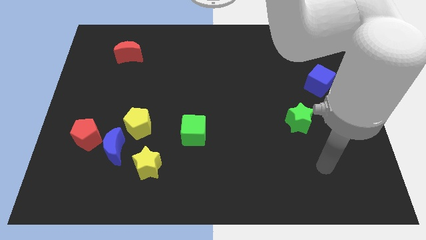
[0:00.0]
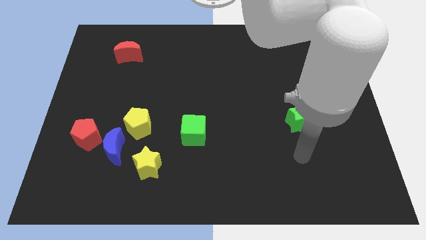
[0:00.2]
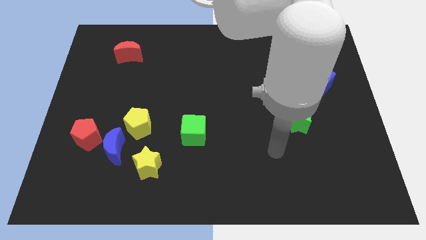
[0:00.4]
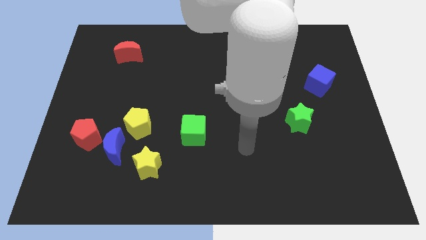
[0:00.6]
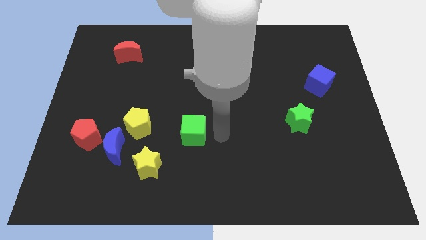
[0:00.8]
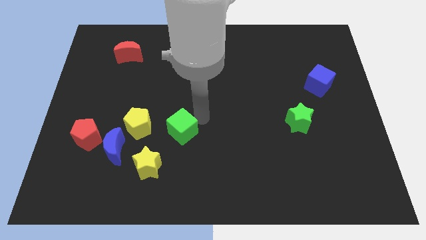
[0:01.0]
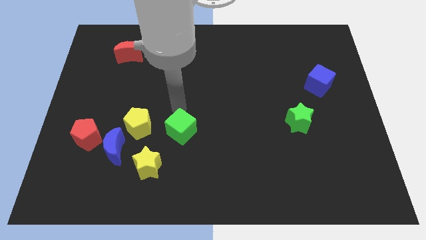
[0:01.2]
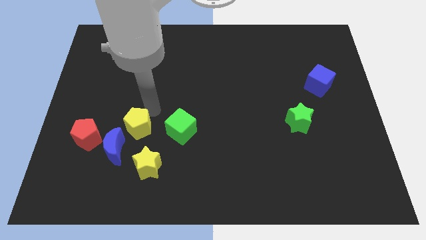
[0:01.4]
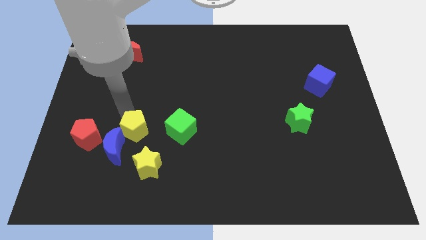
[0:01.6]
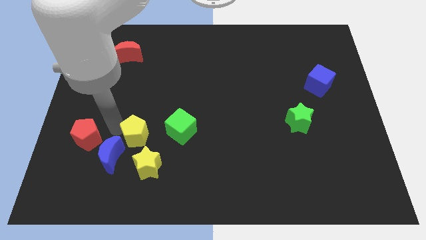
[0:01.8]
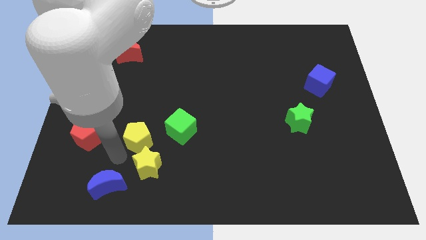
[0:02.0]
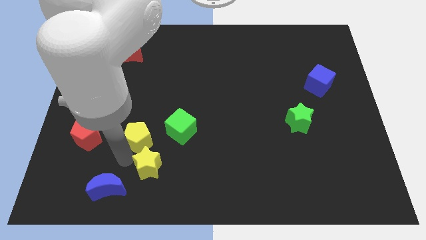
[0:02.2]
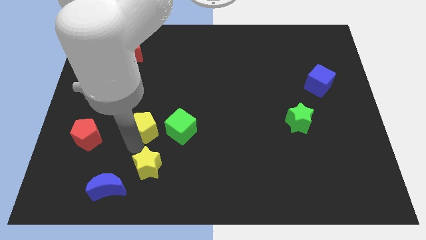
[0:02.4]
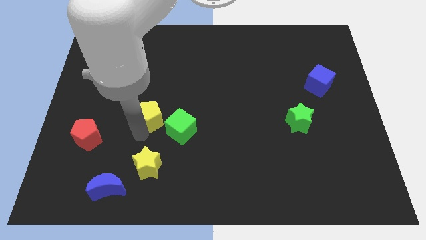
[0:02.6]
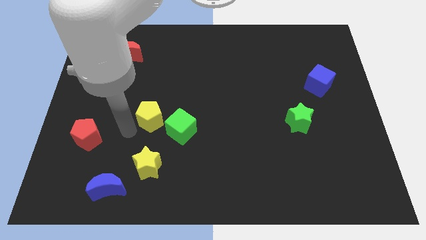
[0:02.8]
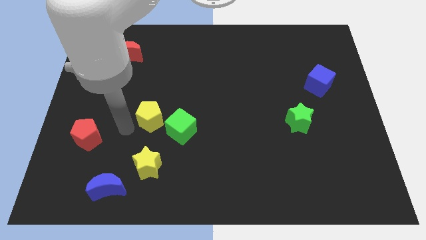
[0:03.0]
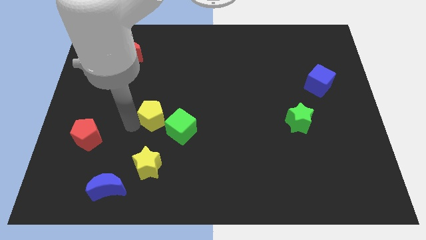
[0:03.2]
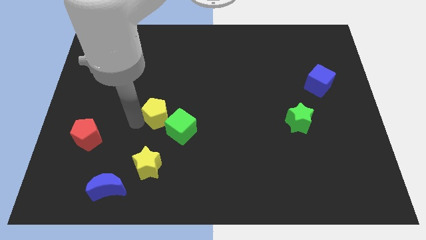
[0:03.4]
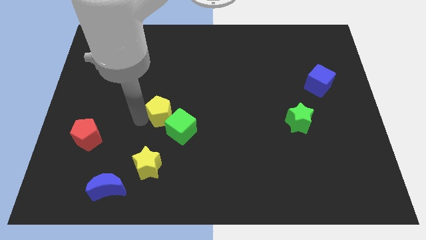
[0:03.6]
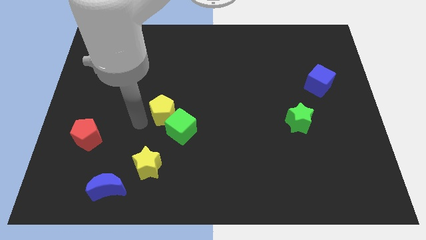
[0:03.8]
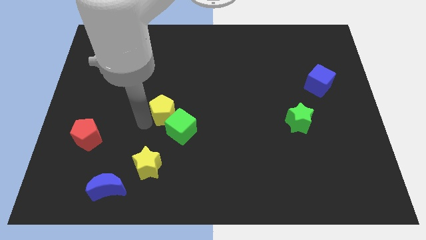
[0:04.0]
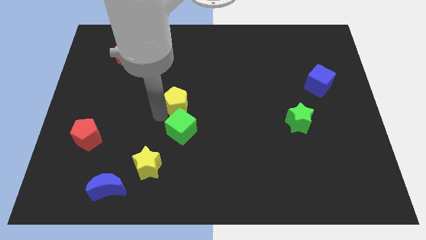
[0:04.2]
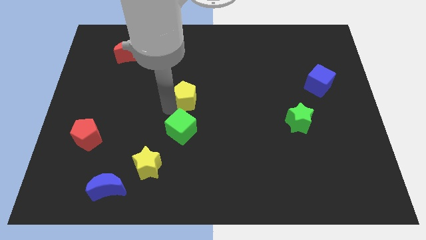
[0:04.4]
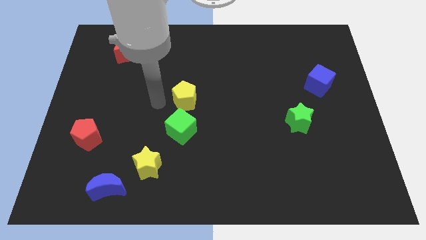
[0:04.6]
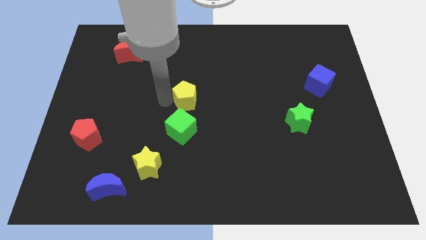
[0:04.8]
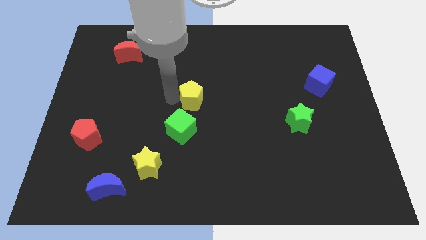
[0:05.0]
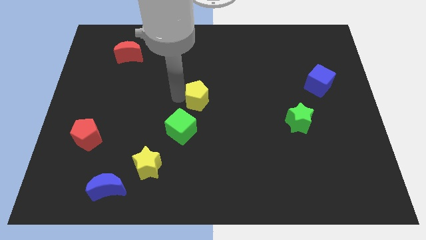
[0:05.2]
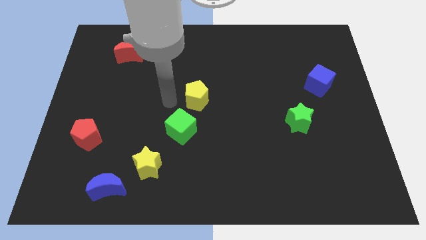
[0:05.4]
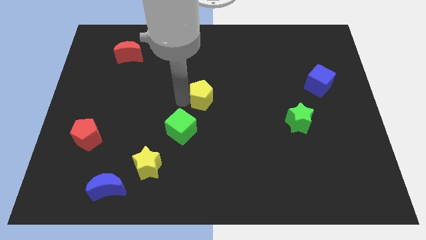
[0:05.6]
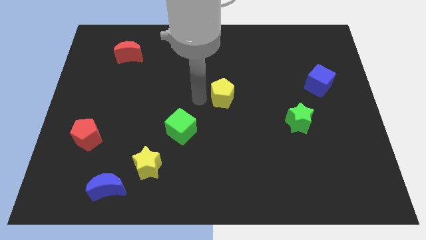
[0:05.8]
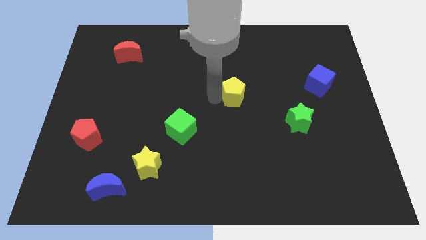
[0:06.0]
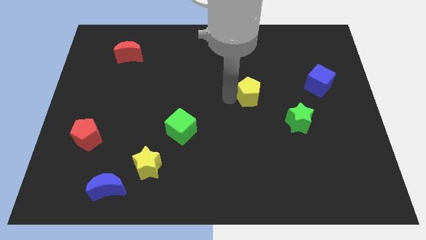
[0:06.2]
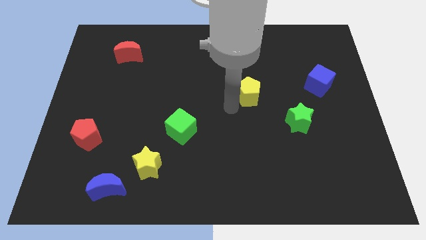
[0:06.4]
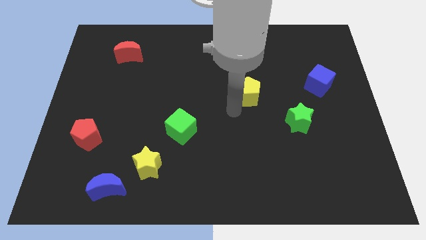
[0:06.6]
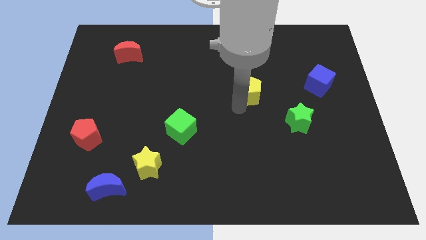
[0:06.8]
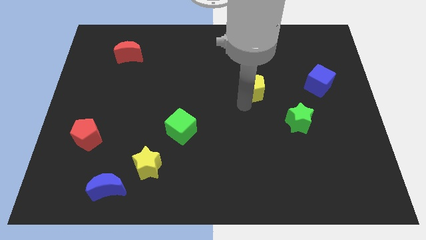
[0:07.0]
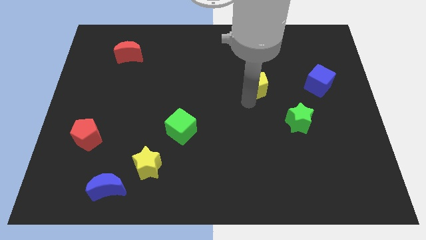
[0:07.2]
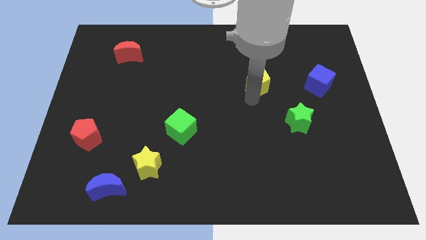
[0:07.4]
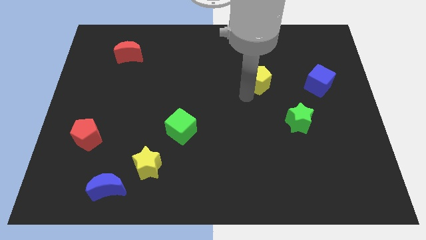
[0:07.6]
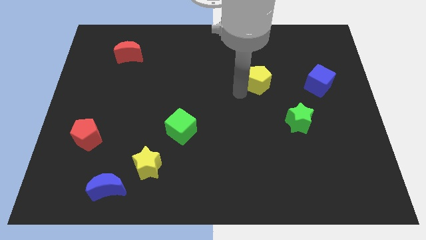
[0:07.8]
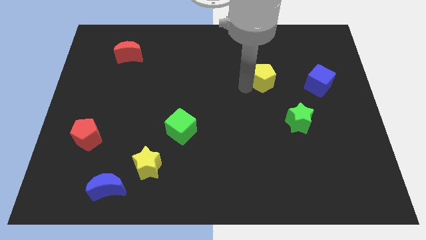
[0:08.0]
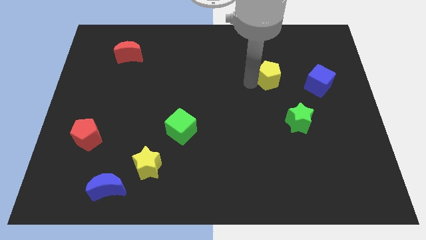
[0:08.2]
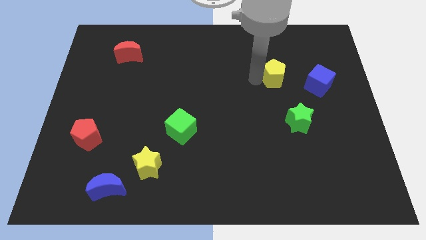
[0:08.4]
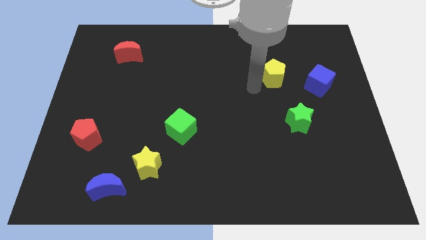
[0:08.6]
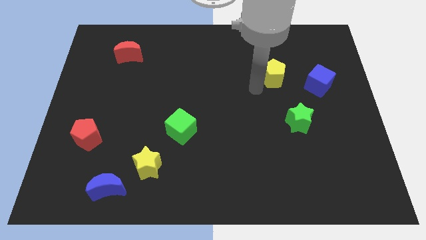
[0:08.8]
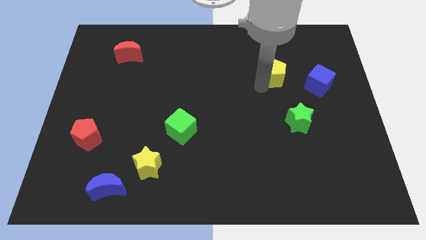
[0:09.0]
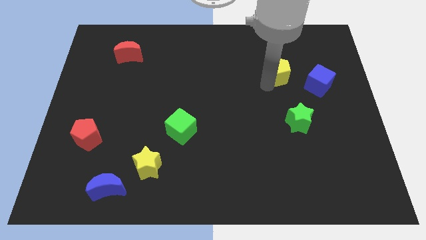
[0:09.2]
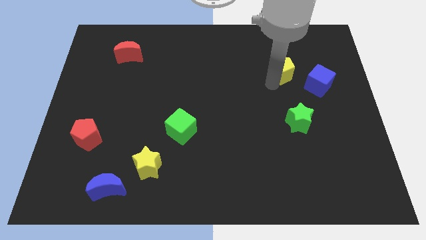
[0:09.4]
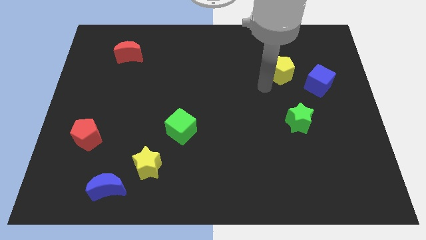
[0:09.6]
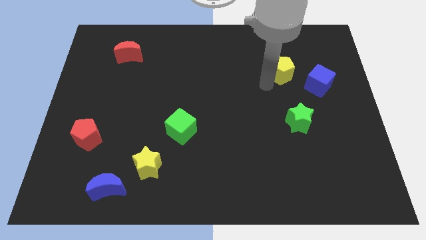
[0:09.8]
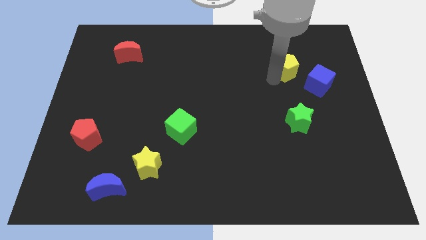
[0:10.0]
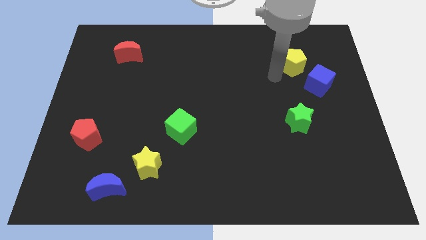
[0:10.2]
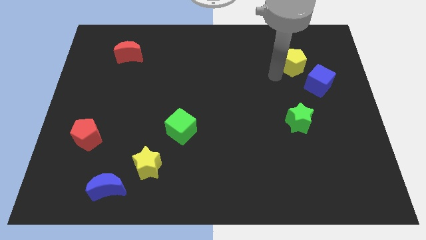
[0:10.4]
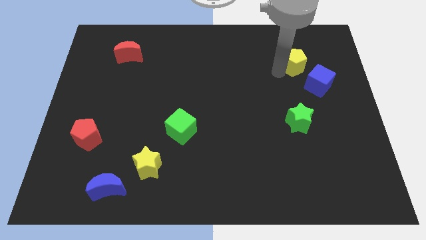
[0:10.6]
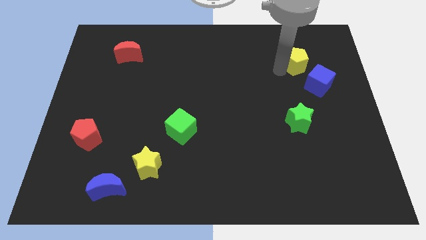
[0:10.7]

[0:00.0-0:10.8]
push the yellow pentagon to the top side of the blue cube

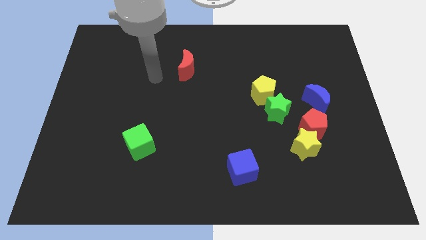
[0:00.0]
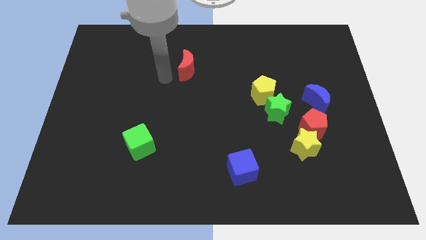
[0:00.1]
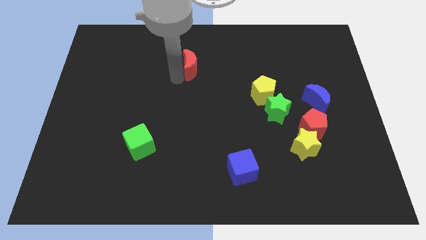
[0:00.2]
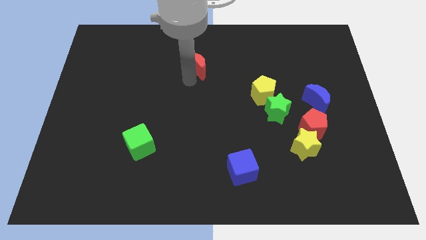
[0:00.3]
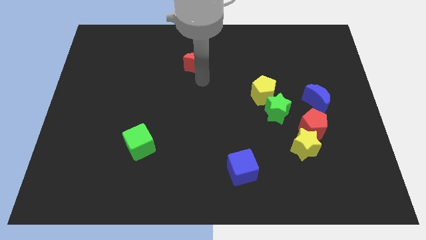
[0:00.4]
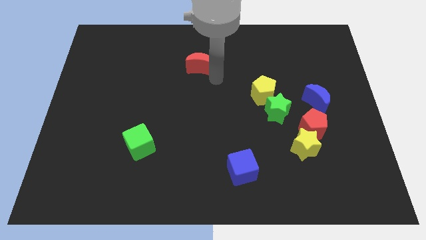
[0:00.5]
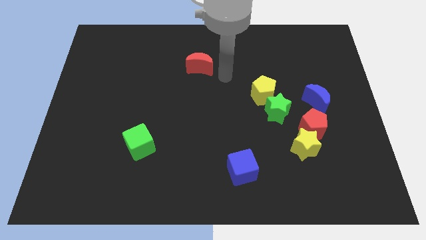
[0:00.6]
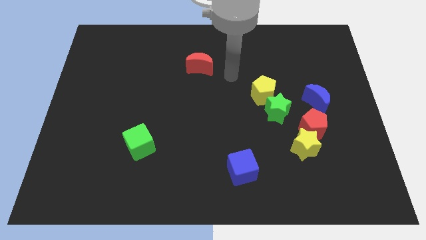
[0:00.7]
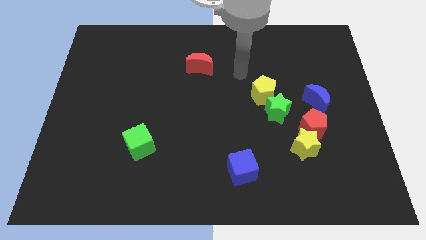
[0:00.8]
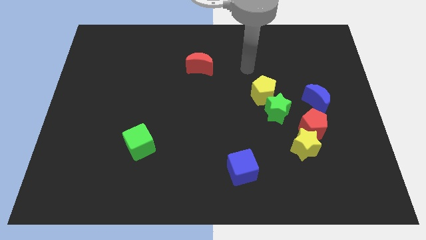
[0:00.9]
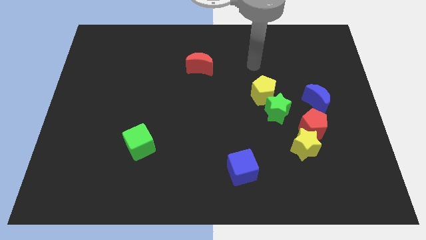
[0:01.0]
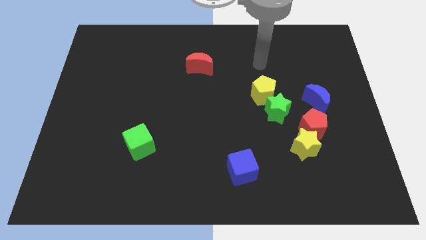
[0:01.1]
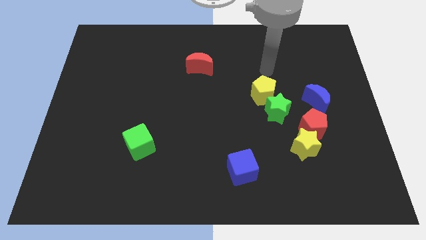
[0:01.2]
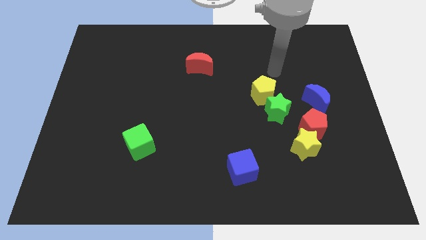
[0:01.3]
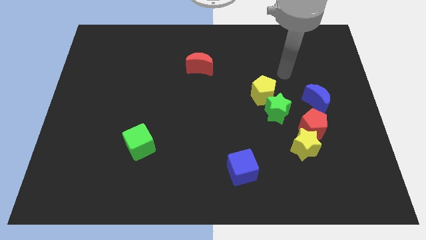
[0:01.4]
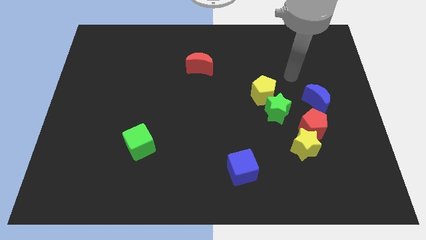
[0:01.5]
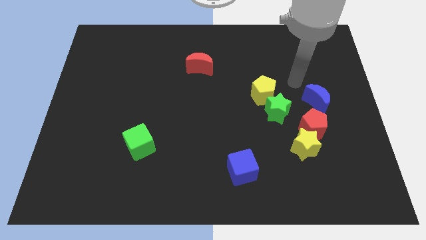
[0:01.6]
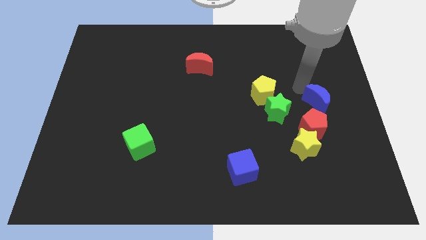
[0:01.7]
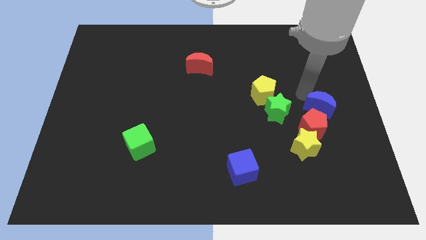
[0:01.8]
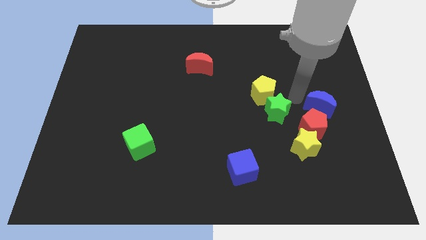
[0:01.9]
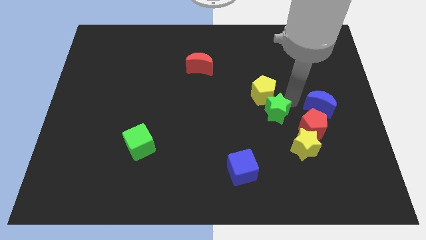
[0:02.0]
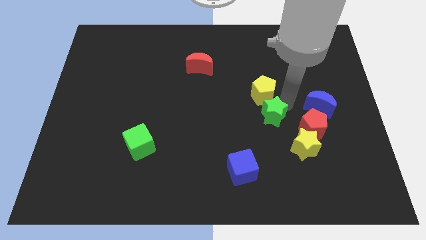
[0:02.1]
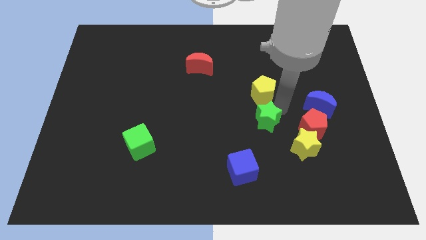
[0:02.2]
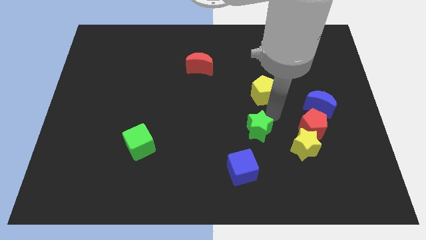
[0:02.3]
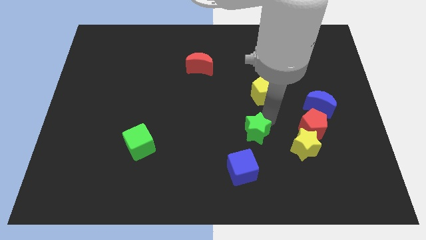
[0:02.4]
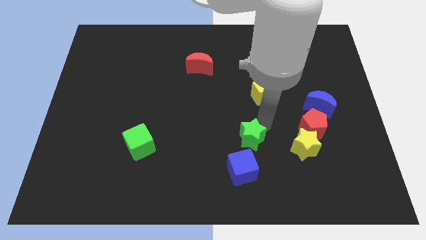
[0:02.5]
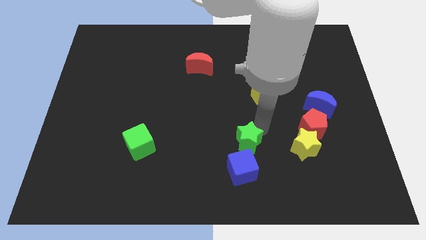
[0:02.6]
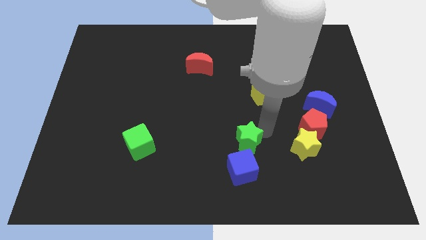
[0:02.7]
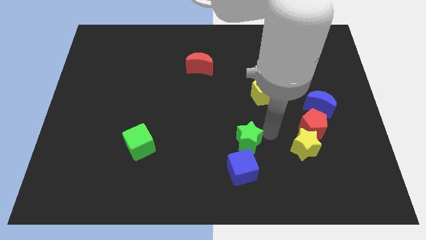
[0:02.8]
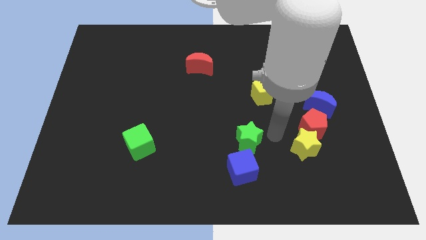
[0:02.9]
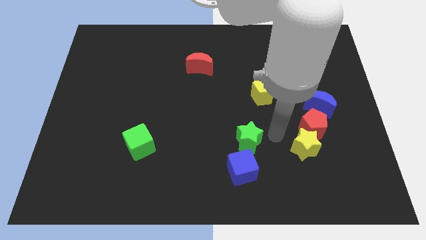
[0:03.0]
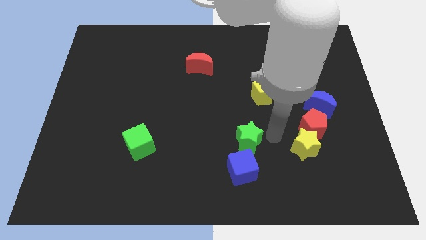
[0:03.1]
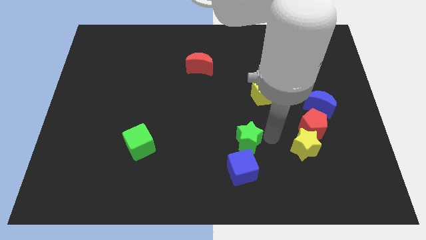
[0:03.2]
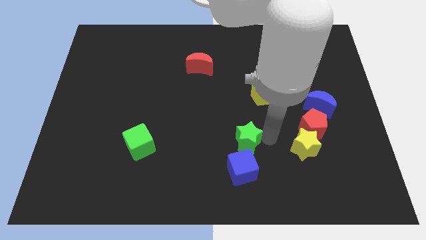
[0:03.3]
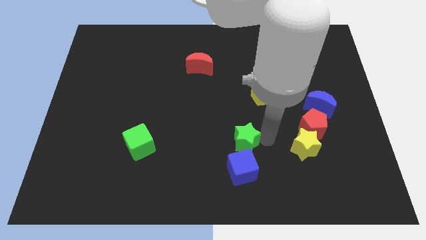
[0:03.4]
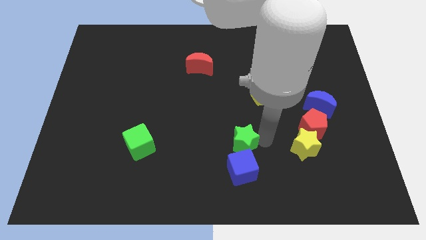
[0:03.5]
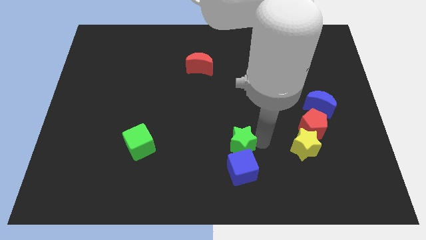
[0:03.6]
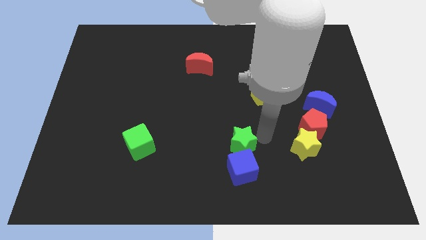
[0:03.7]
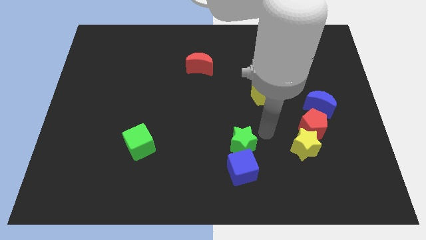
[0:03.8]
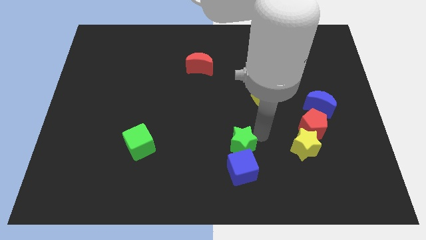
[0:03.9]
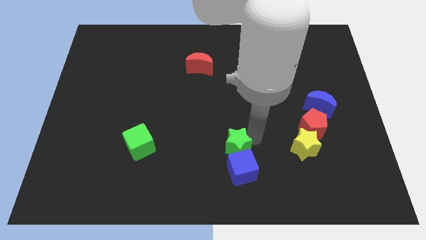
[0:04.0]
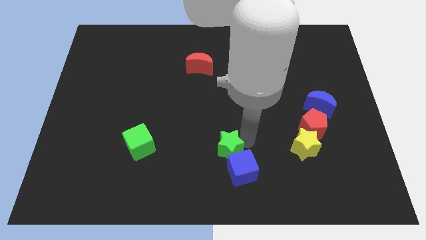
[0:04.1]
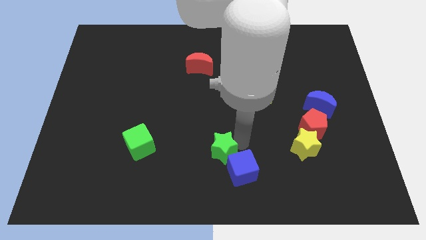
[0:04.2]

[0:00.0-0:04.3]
push the green star to the left of the blue cube
